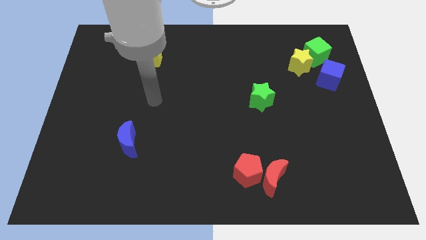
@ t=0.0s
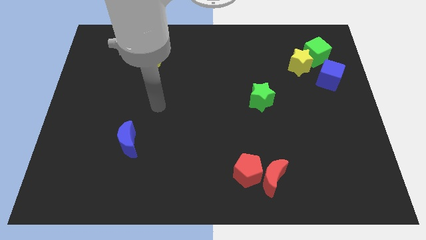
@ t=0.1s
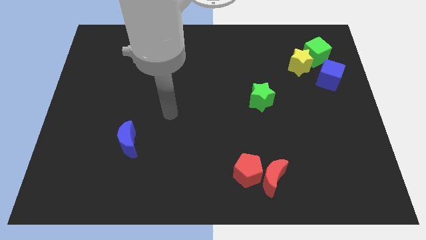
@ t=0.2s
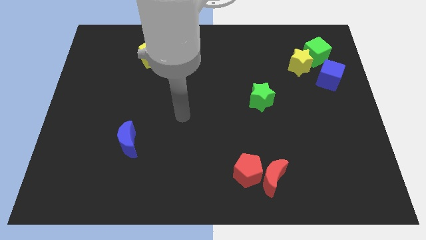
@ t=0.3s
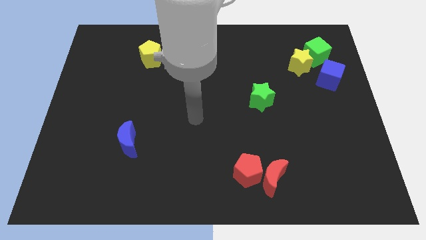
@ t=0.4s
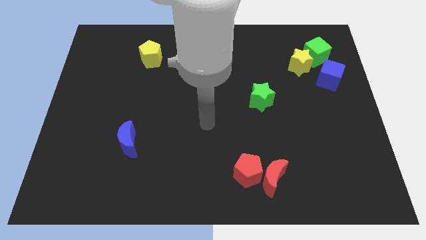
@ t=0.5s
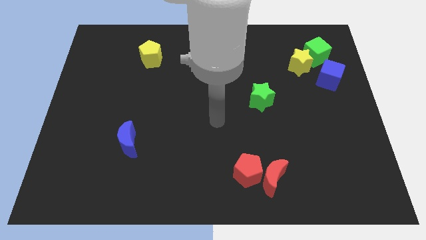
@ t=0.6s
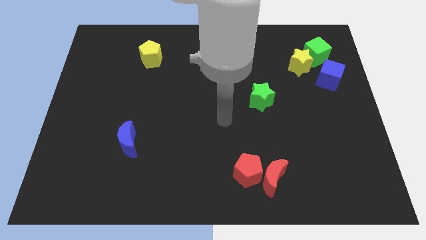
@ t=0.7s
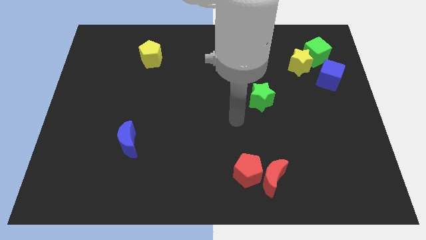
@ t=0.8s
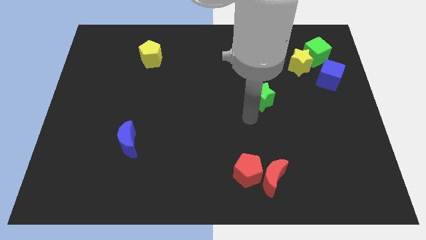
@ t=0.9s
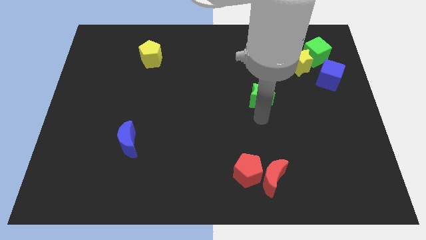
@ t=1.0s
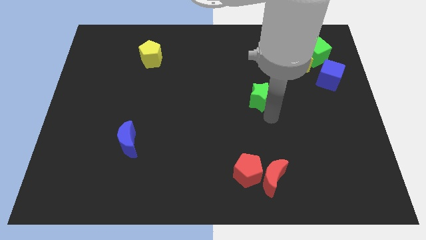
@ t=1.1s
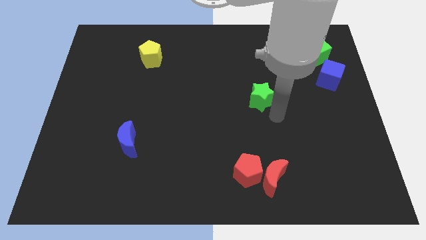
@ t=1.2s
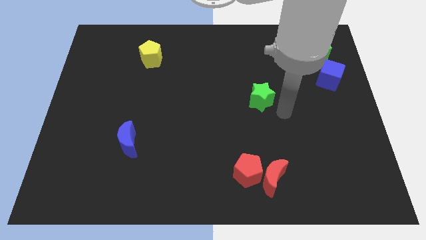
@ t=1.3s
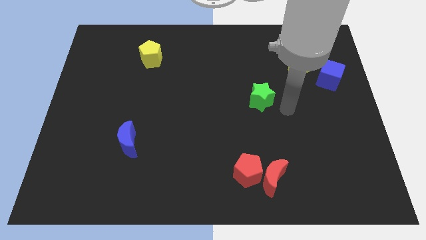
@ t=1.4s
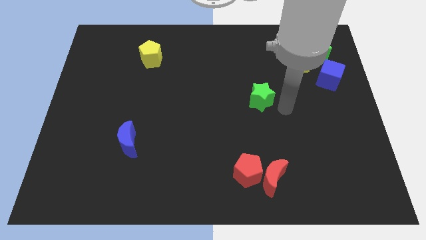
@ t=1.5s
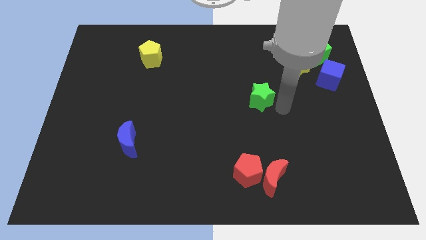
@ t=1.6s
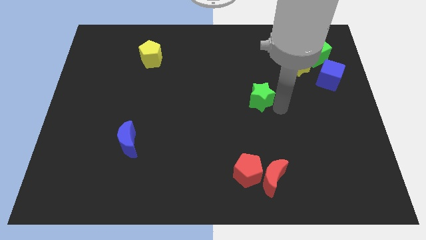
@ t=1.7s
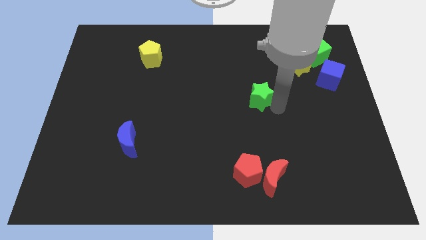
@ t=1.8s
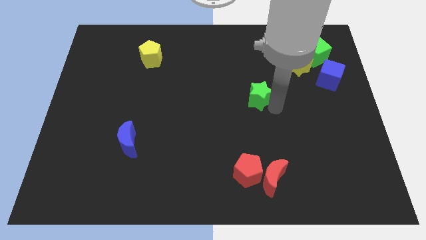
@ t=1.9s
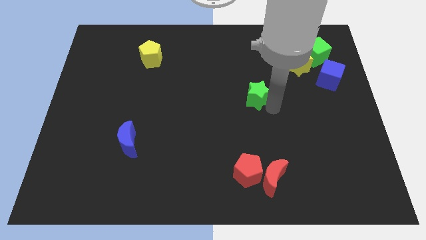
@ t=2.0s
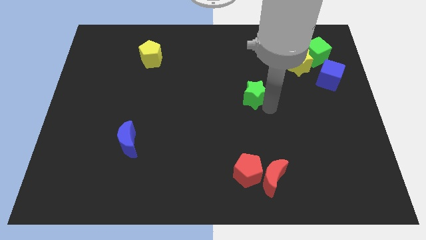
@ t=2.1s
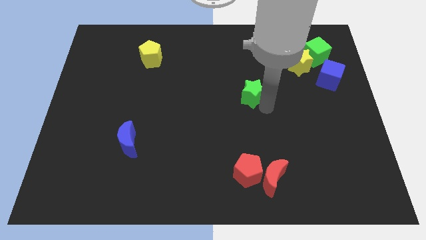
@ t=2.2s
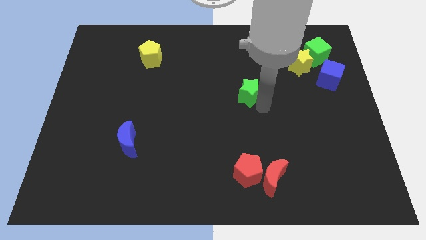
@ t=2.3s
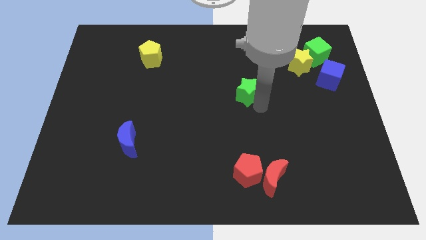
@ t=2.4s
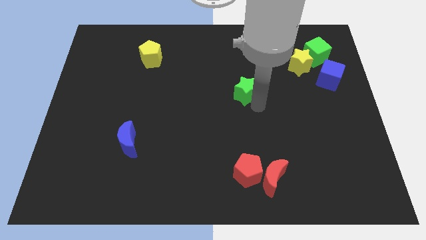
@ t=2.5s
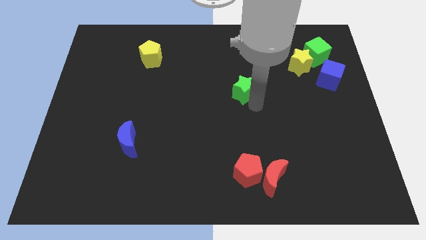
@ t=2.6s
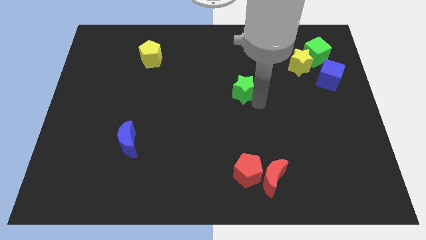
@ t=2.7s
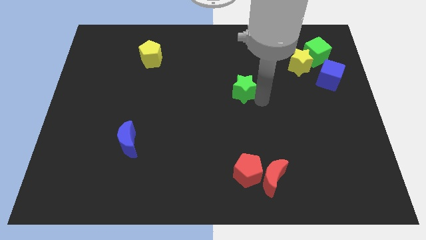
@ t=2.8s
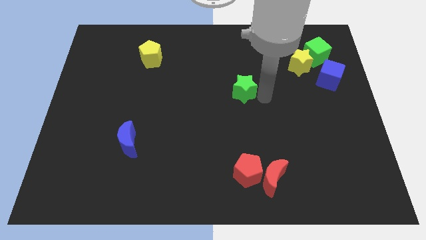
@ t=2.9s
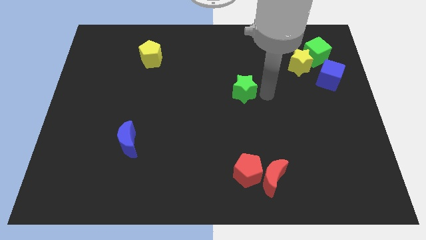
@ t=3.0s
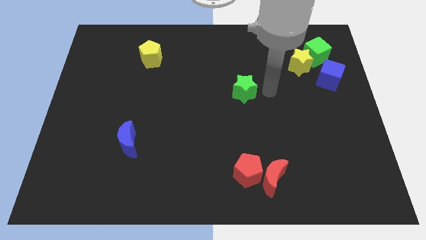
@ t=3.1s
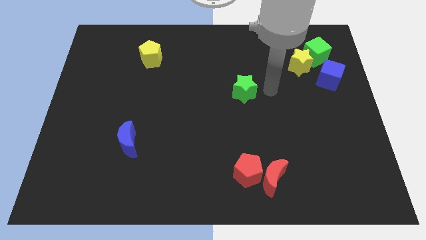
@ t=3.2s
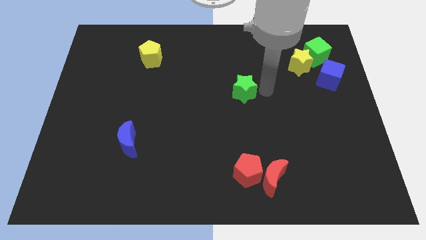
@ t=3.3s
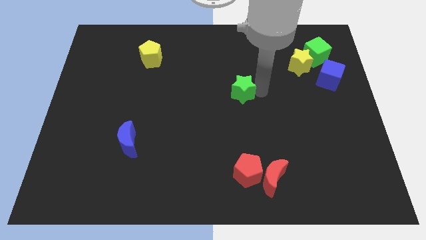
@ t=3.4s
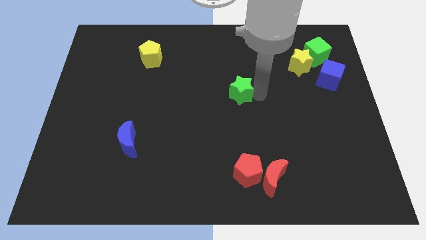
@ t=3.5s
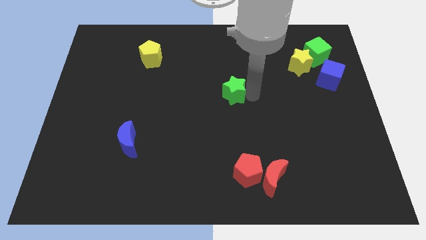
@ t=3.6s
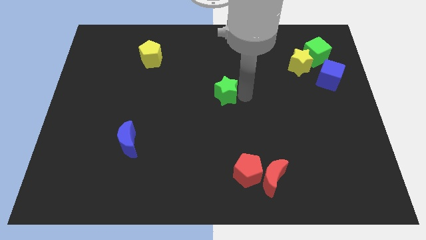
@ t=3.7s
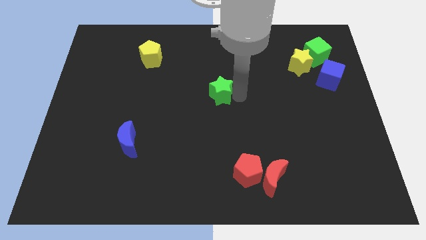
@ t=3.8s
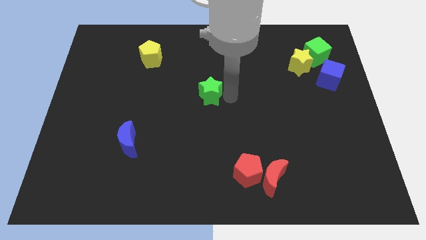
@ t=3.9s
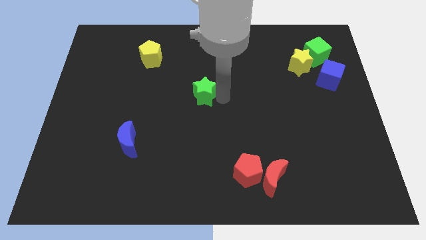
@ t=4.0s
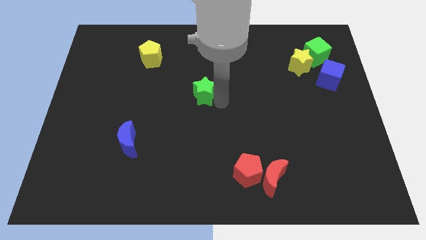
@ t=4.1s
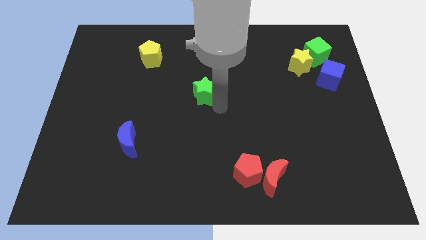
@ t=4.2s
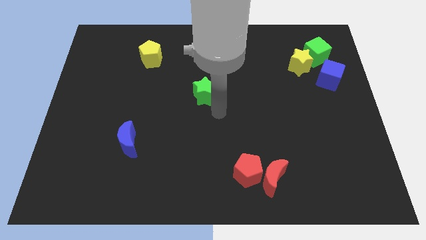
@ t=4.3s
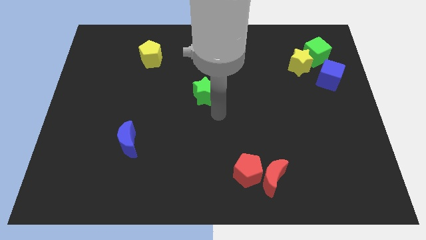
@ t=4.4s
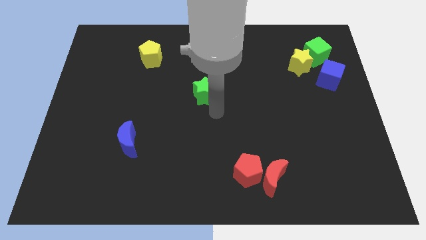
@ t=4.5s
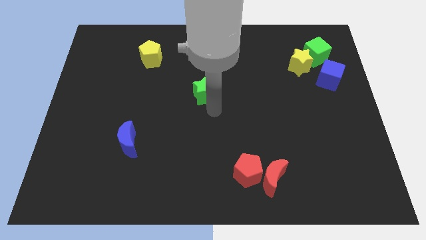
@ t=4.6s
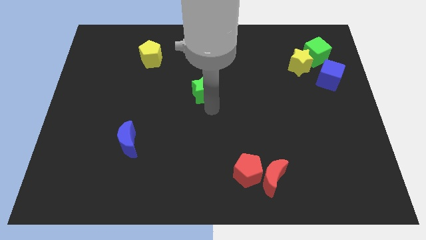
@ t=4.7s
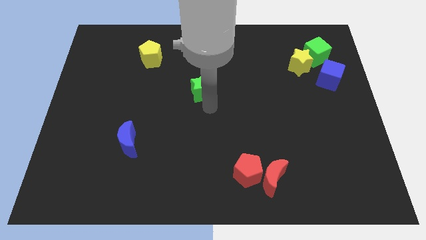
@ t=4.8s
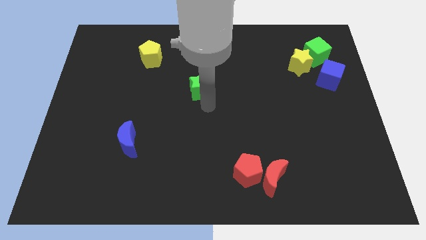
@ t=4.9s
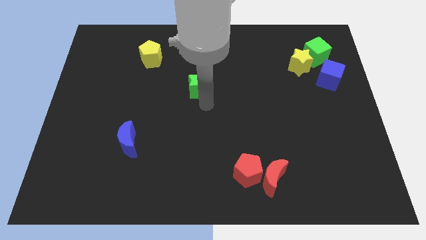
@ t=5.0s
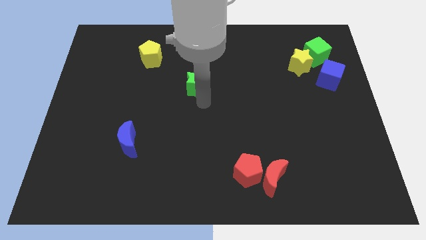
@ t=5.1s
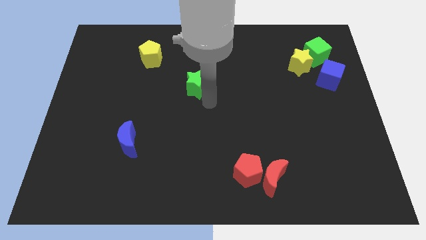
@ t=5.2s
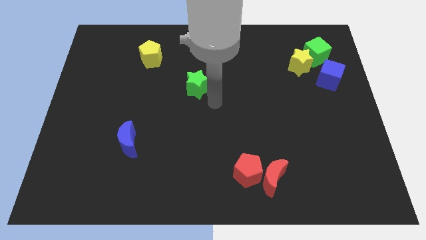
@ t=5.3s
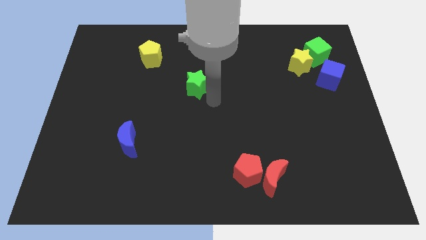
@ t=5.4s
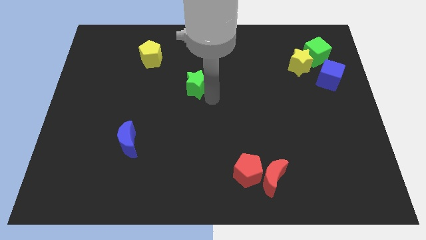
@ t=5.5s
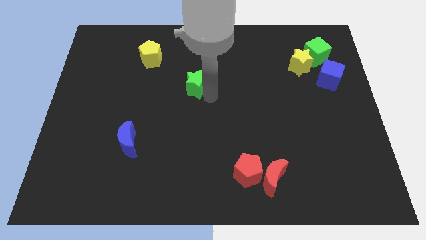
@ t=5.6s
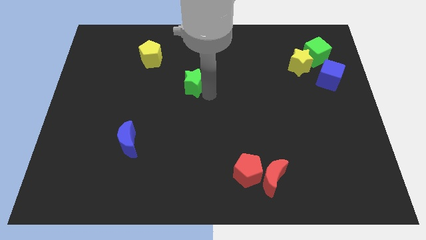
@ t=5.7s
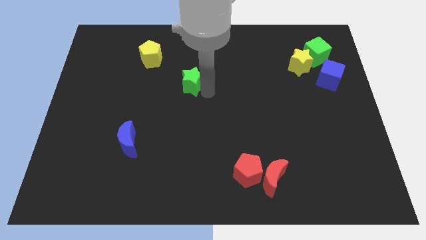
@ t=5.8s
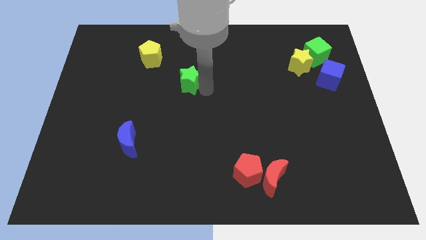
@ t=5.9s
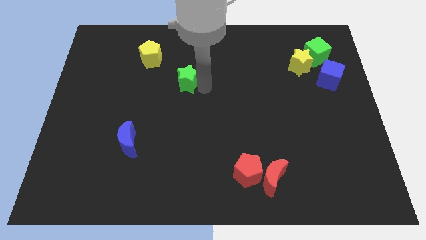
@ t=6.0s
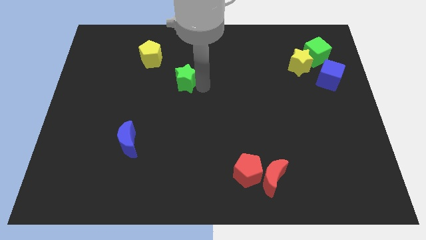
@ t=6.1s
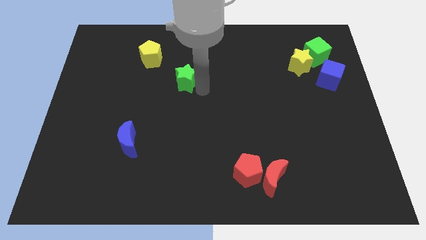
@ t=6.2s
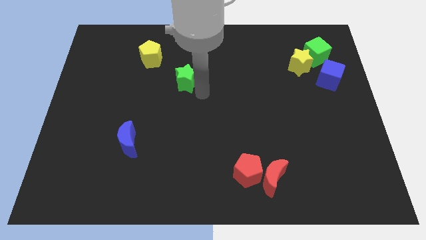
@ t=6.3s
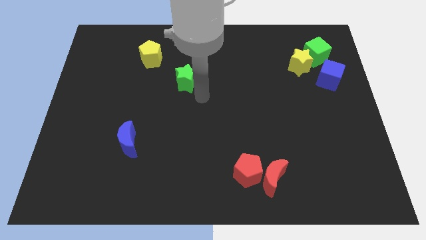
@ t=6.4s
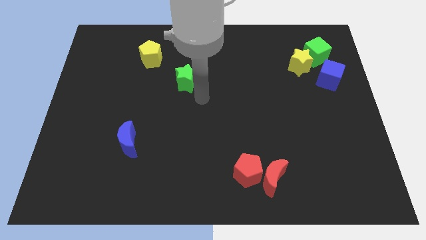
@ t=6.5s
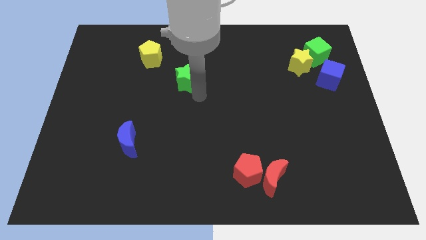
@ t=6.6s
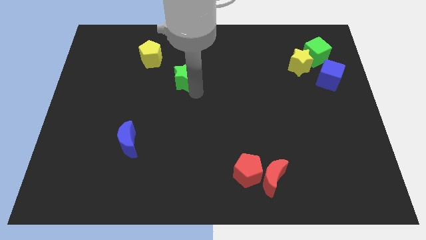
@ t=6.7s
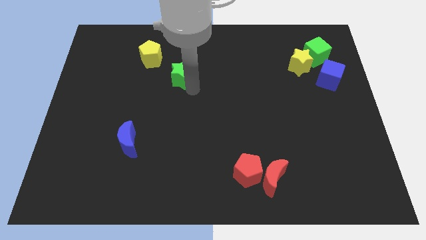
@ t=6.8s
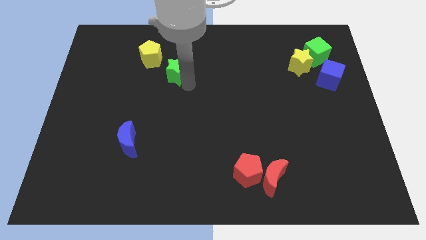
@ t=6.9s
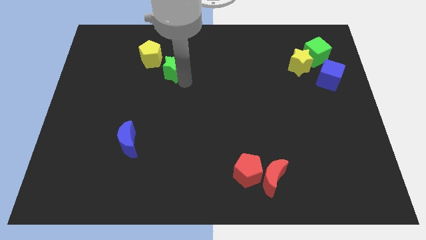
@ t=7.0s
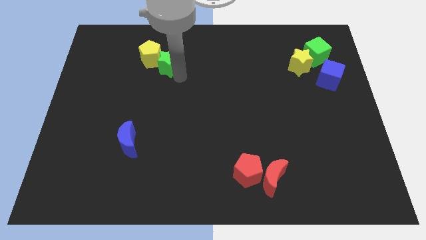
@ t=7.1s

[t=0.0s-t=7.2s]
move the green star close to the yellow pentagon
